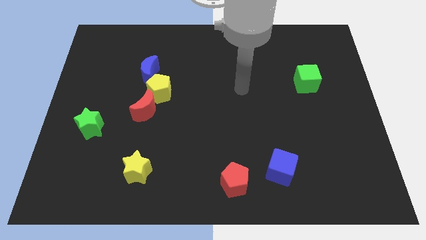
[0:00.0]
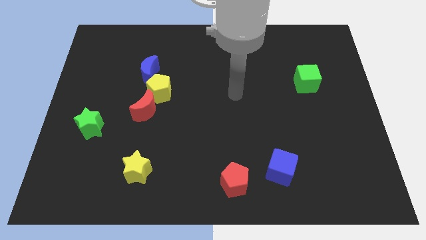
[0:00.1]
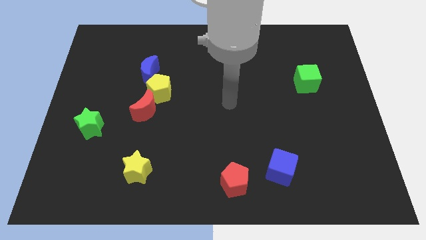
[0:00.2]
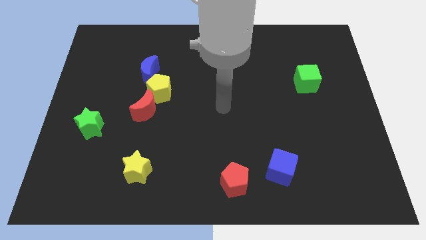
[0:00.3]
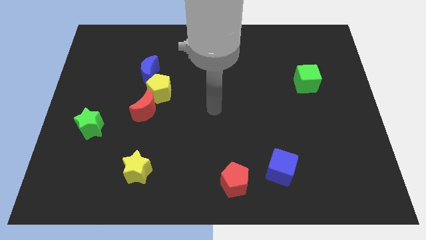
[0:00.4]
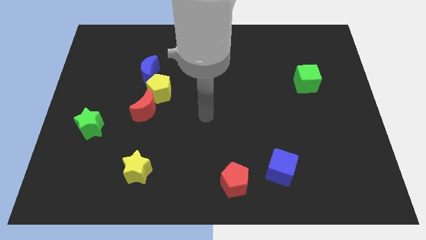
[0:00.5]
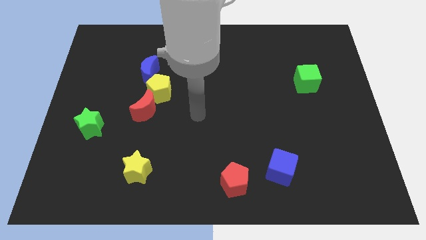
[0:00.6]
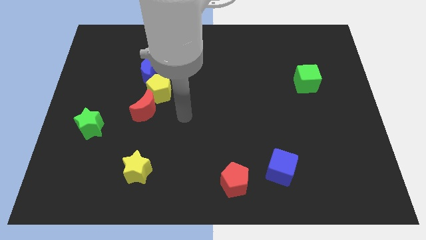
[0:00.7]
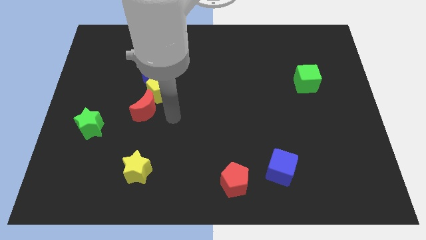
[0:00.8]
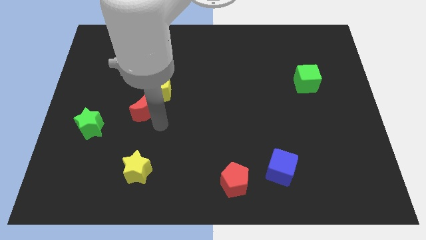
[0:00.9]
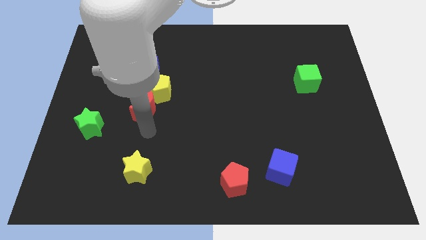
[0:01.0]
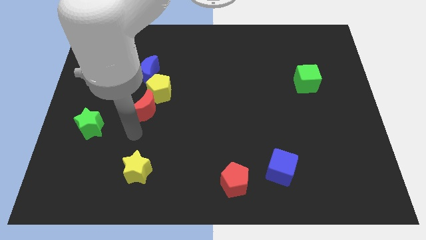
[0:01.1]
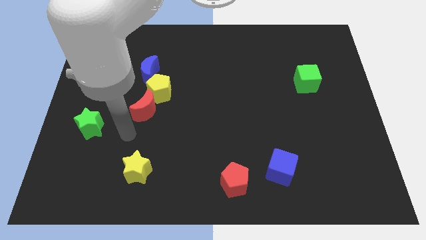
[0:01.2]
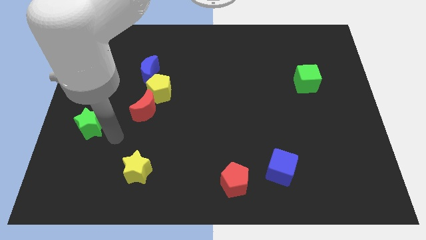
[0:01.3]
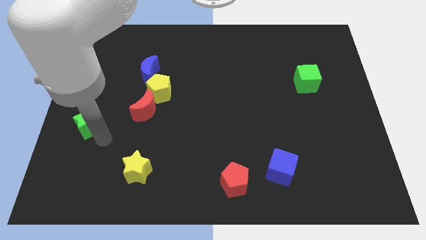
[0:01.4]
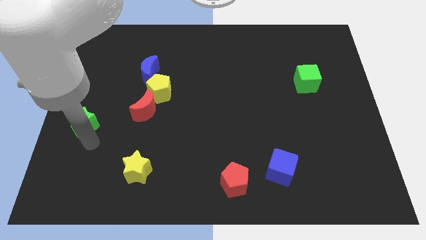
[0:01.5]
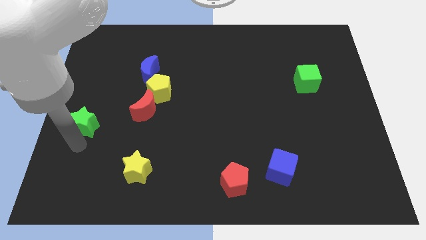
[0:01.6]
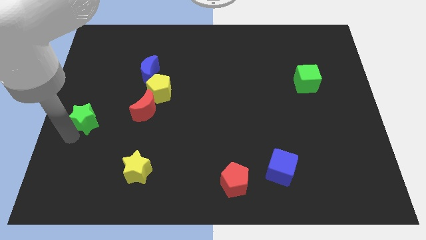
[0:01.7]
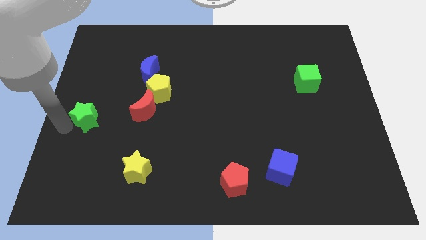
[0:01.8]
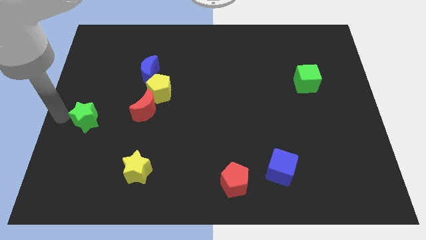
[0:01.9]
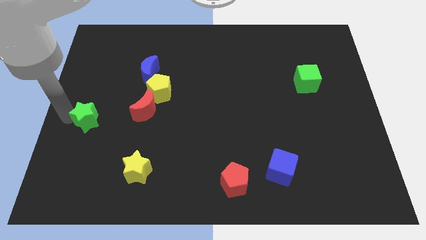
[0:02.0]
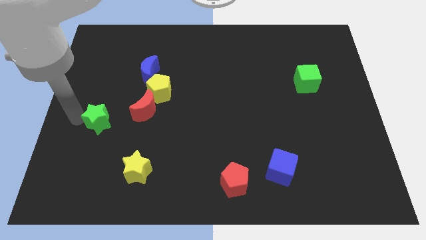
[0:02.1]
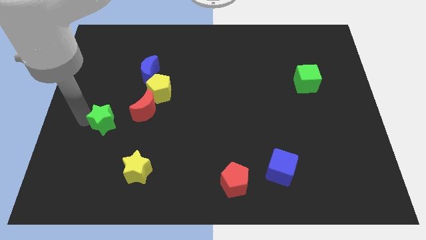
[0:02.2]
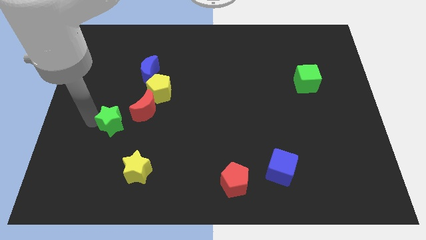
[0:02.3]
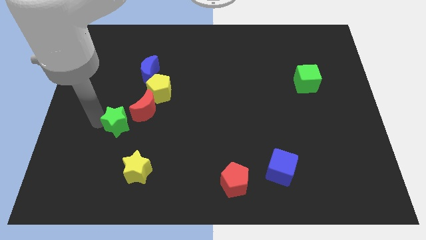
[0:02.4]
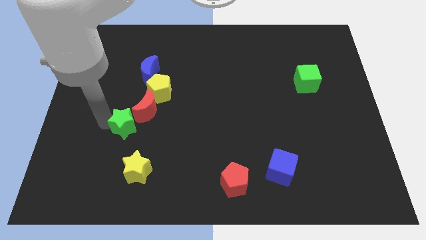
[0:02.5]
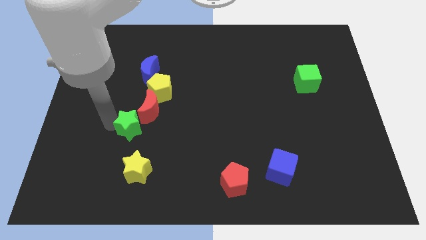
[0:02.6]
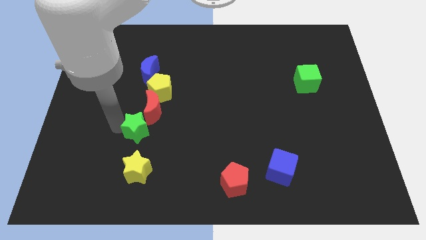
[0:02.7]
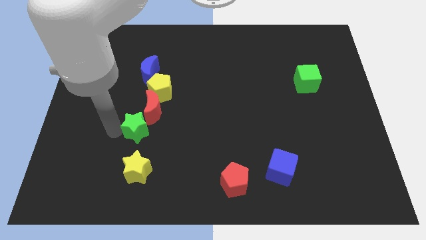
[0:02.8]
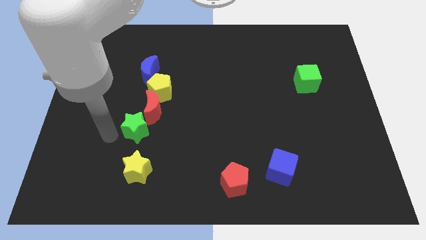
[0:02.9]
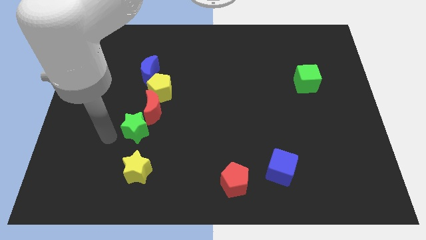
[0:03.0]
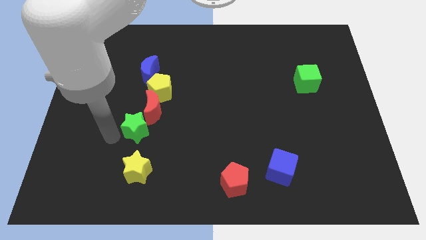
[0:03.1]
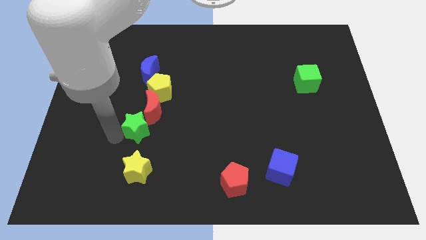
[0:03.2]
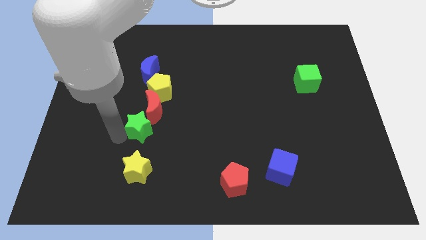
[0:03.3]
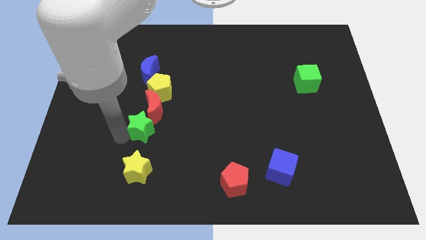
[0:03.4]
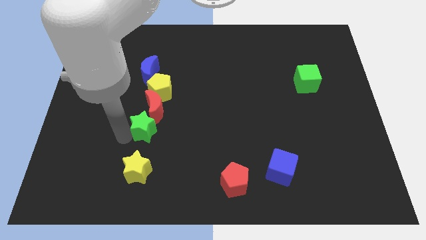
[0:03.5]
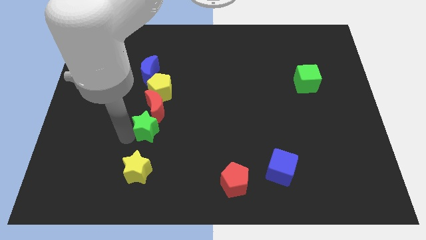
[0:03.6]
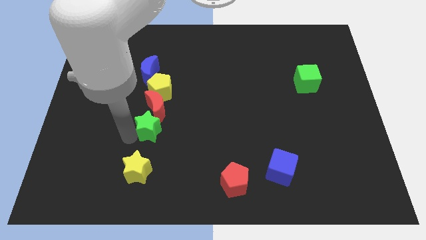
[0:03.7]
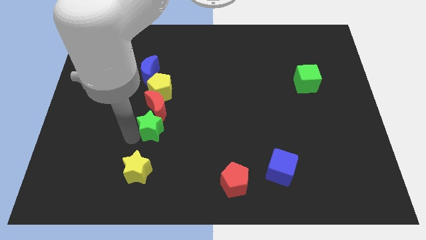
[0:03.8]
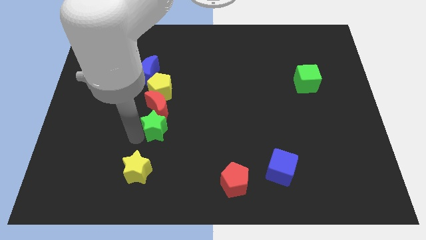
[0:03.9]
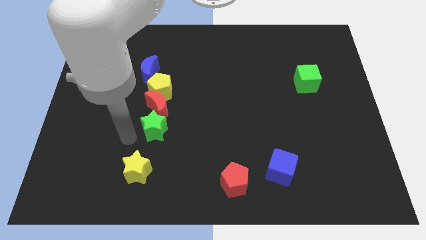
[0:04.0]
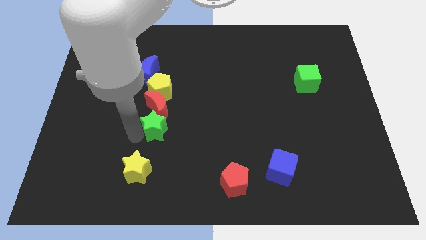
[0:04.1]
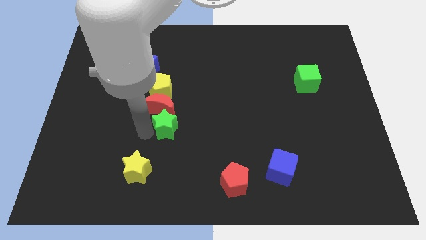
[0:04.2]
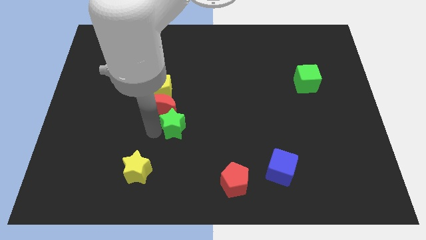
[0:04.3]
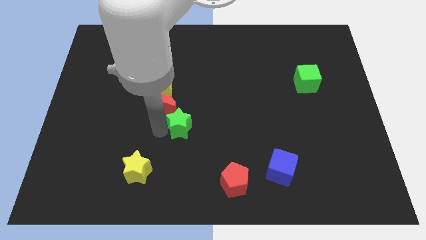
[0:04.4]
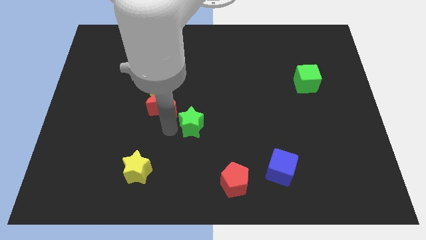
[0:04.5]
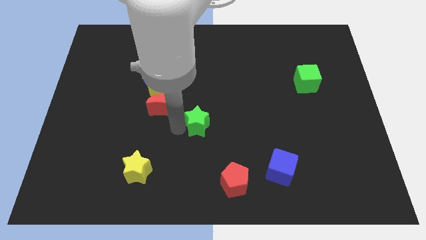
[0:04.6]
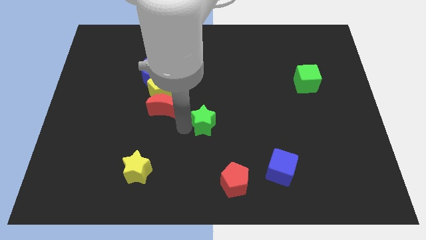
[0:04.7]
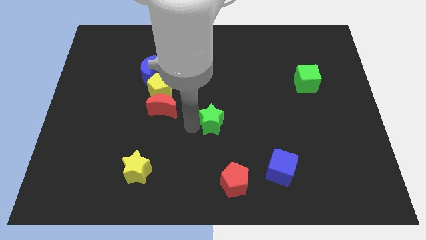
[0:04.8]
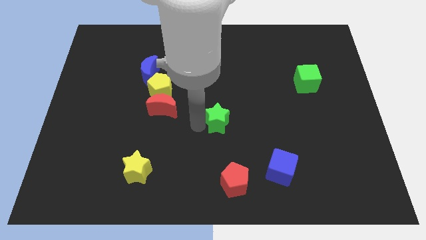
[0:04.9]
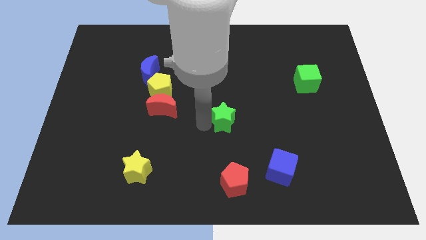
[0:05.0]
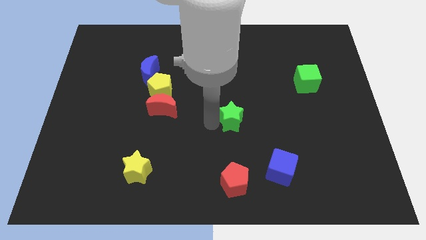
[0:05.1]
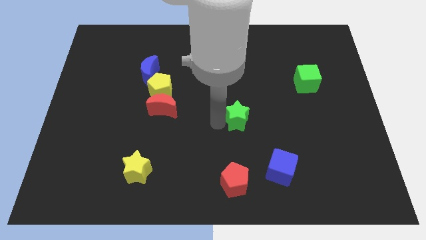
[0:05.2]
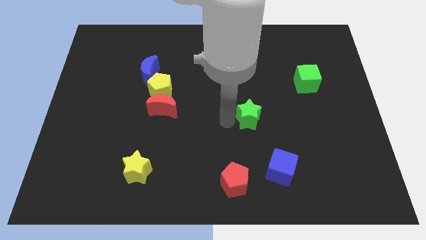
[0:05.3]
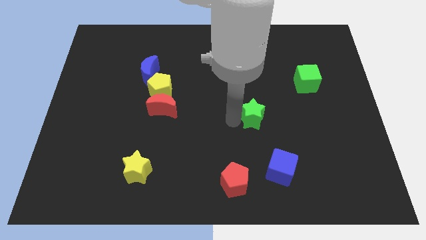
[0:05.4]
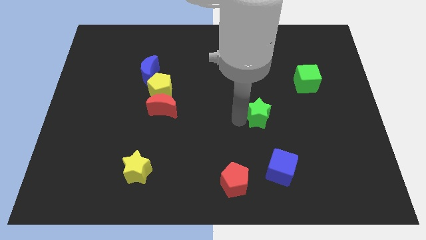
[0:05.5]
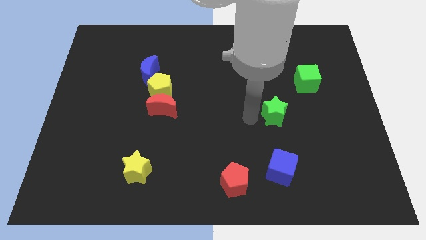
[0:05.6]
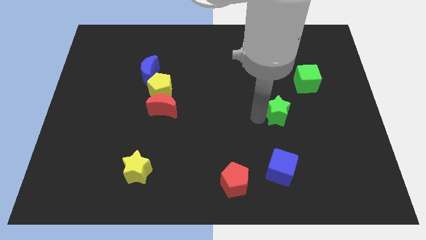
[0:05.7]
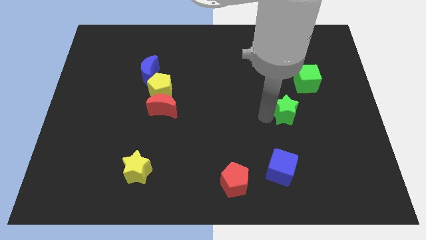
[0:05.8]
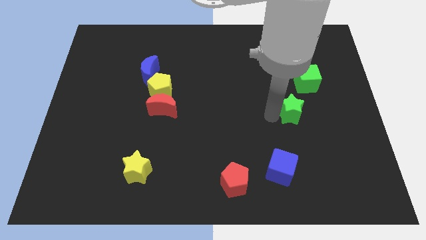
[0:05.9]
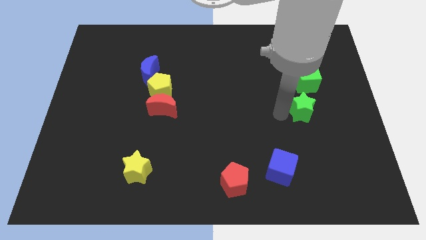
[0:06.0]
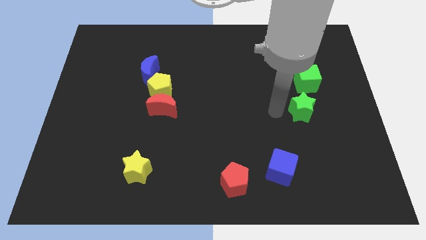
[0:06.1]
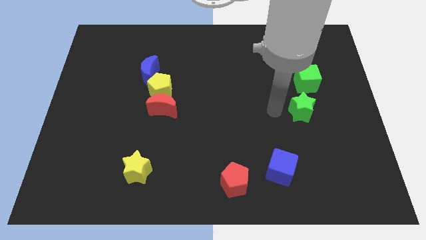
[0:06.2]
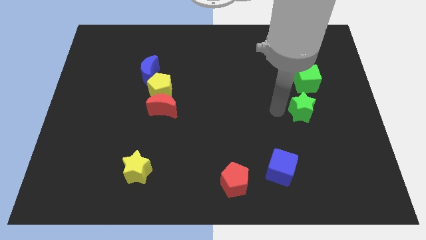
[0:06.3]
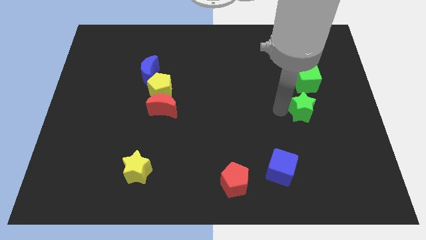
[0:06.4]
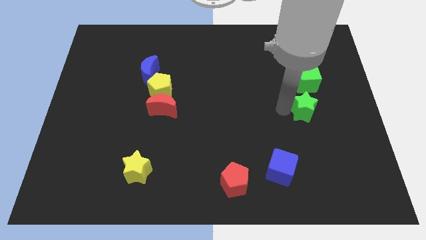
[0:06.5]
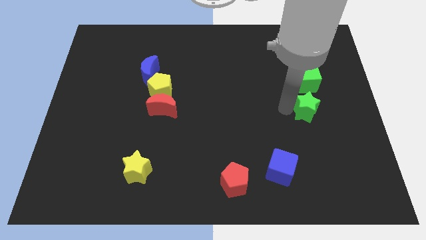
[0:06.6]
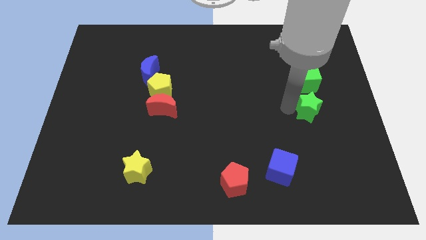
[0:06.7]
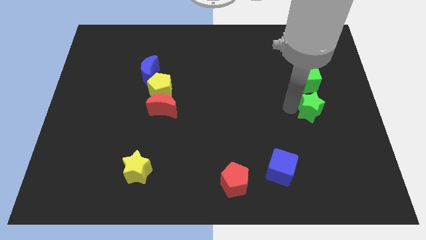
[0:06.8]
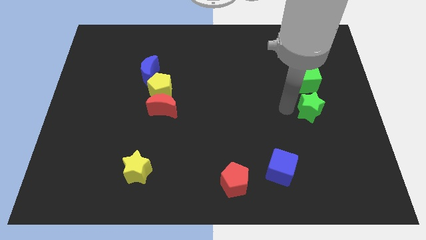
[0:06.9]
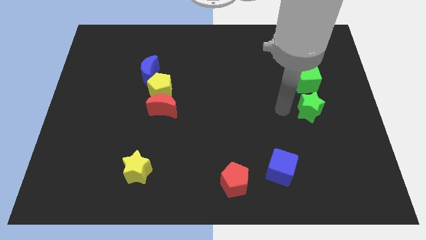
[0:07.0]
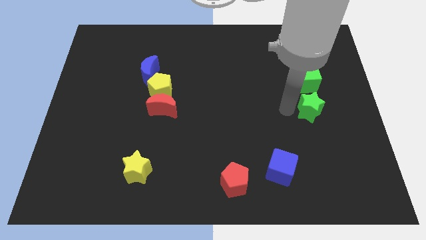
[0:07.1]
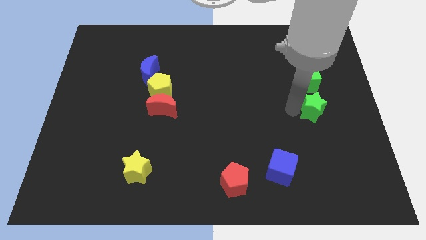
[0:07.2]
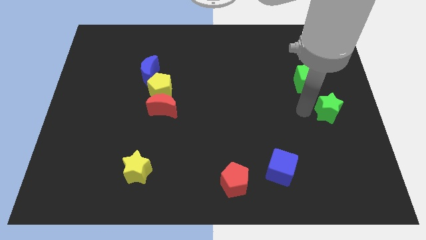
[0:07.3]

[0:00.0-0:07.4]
put the green star to the right side of the board

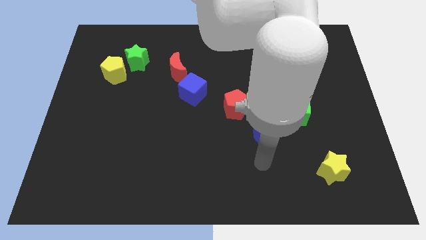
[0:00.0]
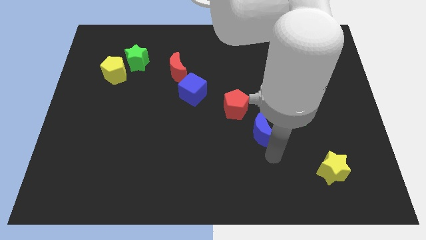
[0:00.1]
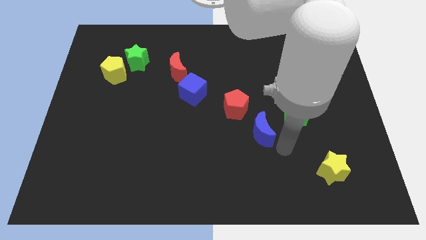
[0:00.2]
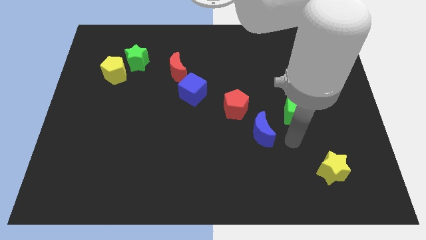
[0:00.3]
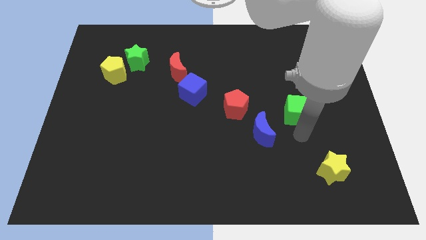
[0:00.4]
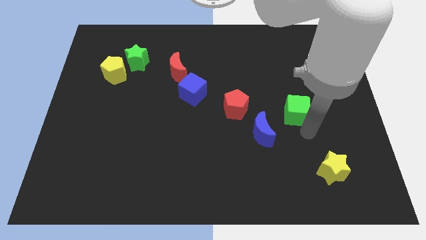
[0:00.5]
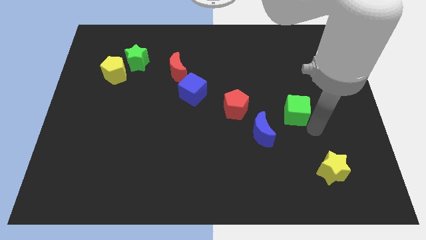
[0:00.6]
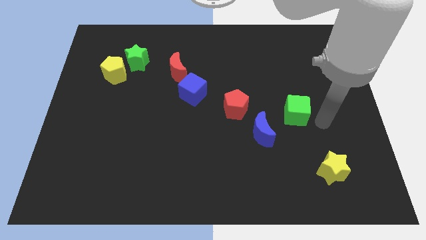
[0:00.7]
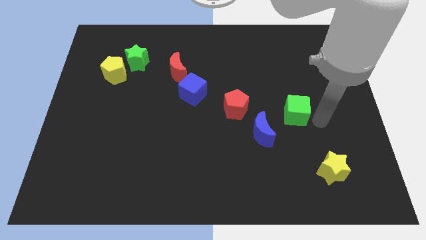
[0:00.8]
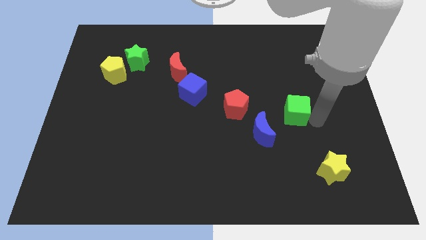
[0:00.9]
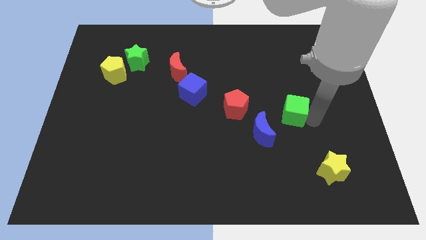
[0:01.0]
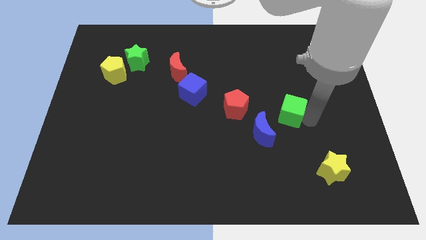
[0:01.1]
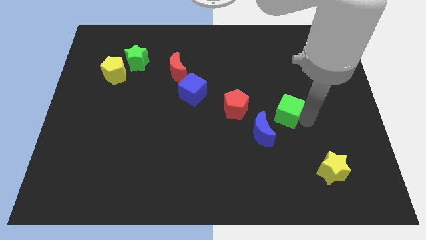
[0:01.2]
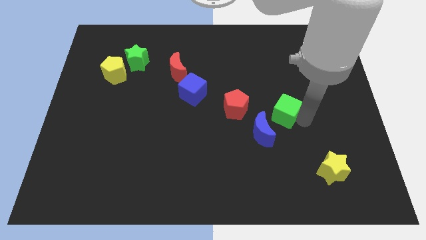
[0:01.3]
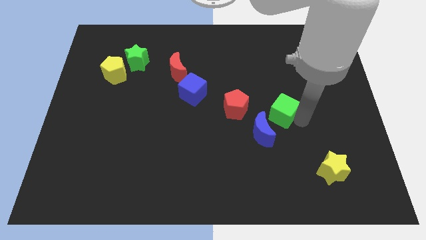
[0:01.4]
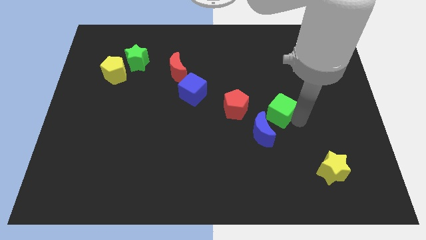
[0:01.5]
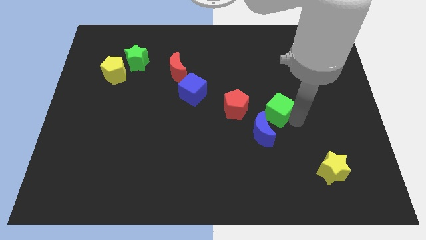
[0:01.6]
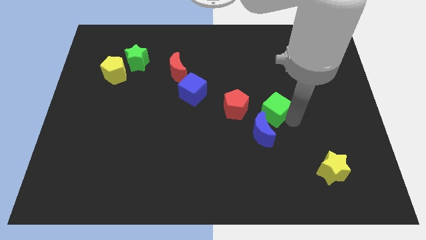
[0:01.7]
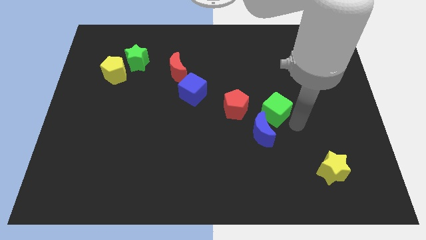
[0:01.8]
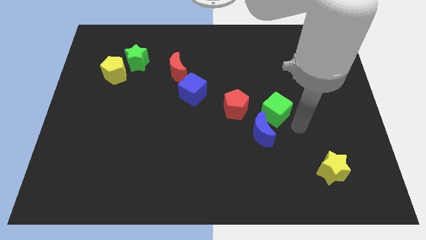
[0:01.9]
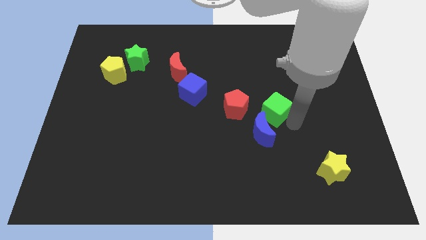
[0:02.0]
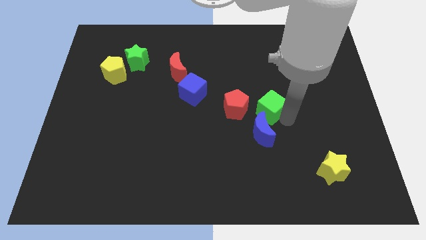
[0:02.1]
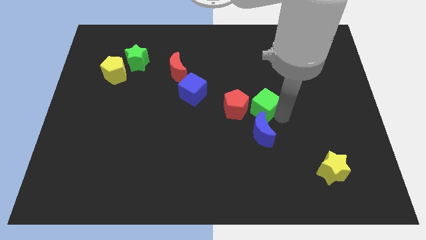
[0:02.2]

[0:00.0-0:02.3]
move the green cube to the center of the board
